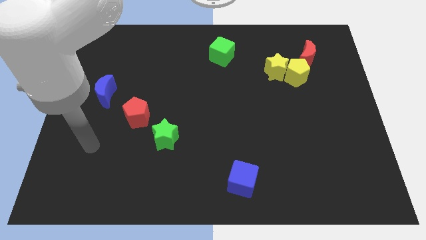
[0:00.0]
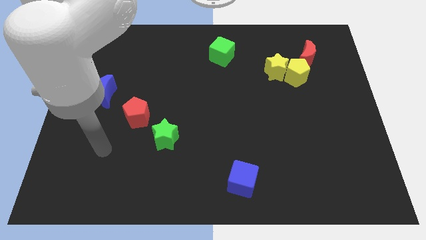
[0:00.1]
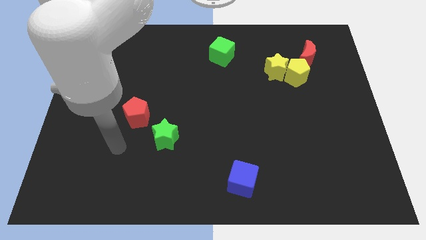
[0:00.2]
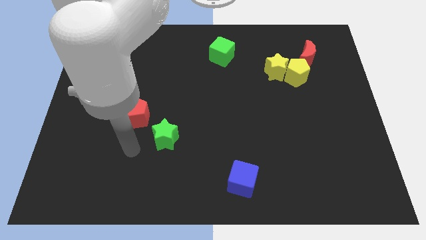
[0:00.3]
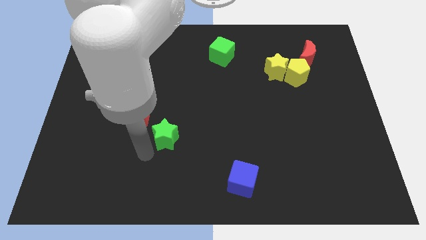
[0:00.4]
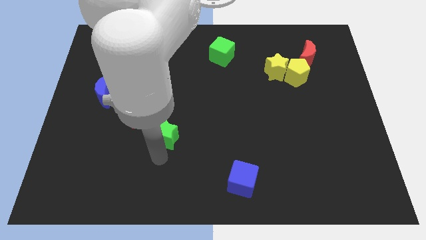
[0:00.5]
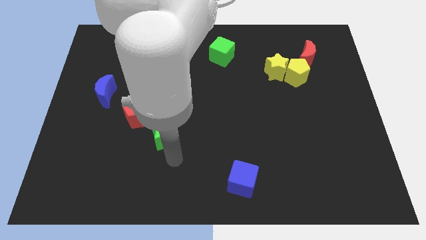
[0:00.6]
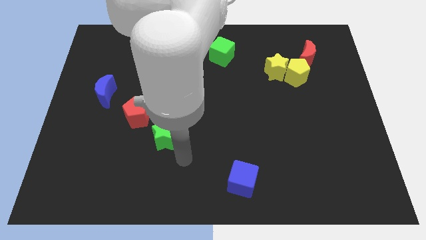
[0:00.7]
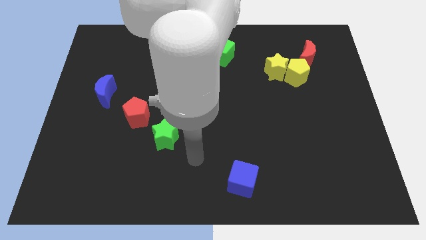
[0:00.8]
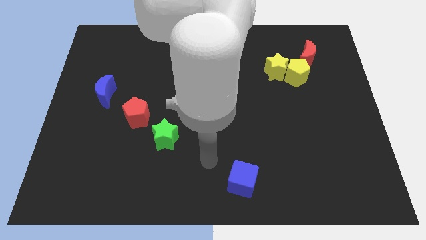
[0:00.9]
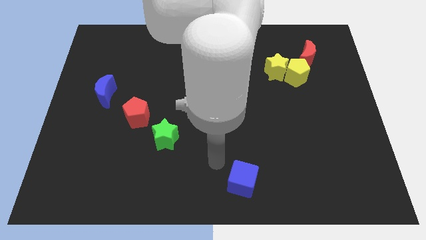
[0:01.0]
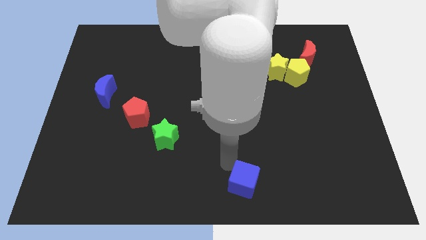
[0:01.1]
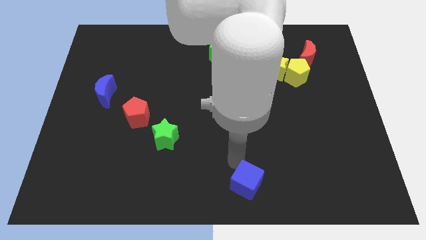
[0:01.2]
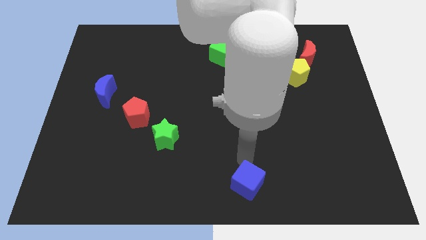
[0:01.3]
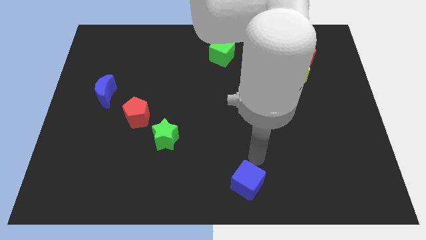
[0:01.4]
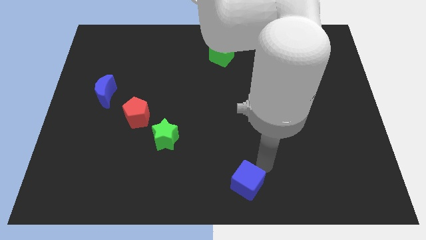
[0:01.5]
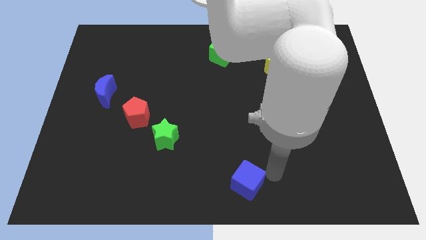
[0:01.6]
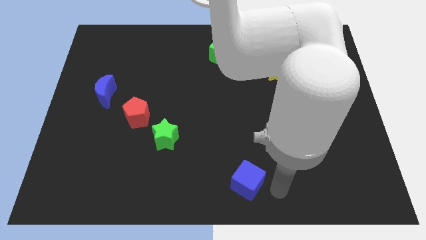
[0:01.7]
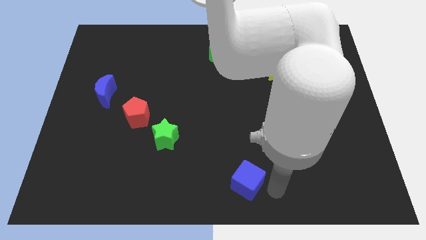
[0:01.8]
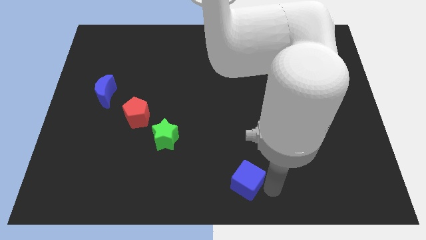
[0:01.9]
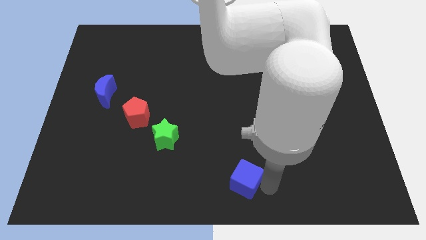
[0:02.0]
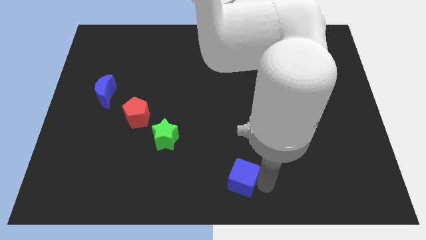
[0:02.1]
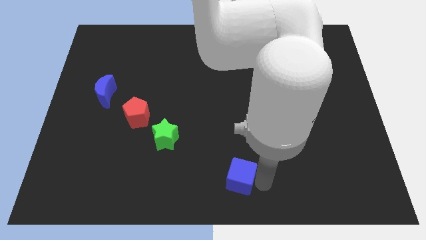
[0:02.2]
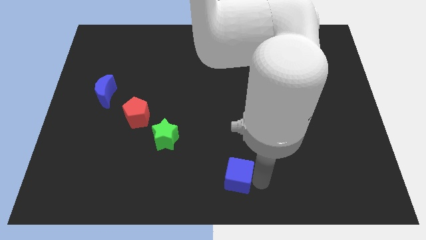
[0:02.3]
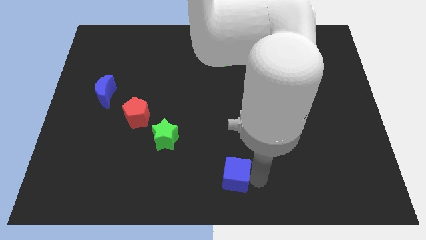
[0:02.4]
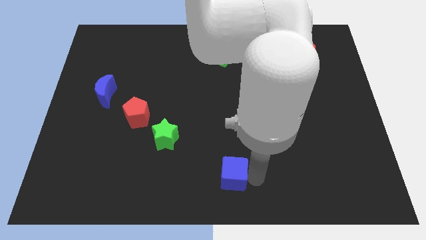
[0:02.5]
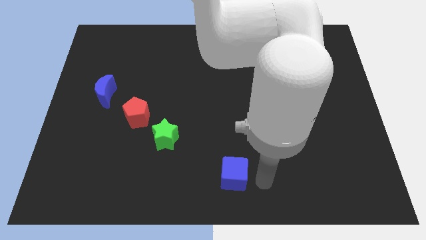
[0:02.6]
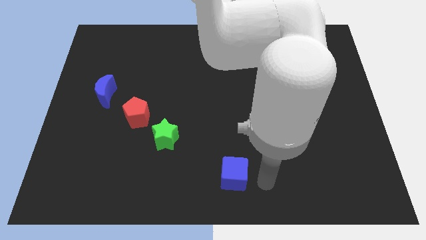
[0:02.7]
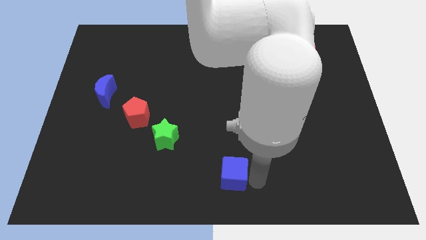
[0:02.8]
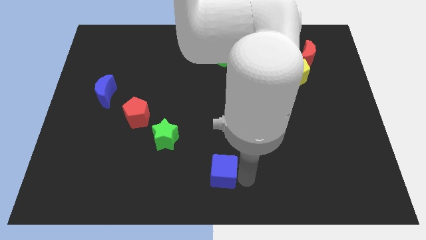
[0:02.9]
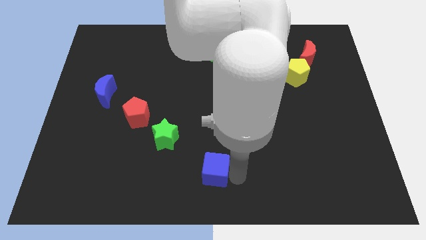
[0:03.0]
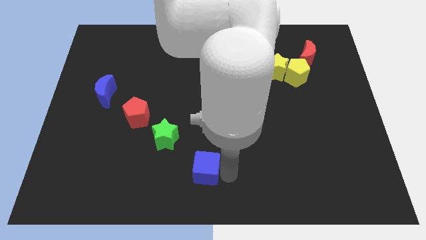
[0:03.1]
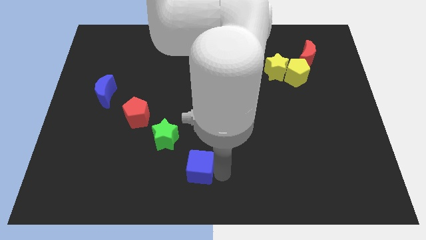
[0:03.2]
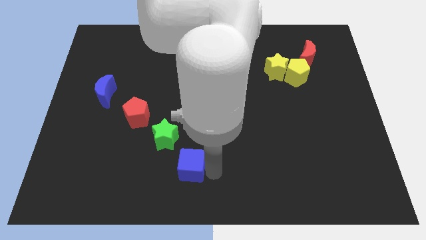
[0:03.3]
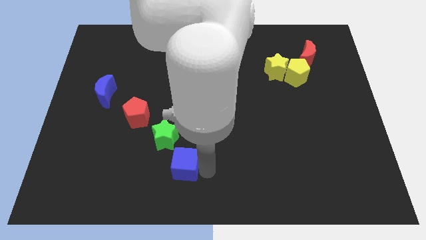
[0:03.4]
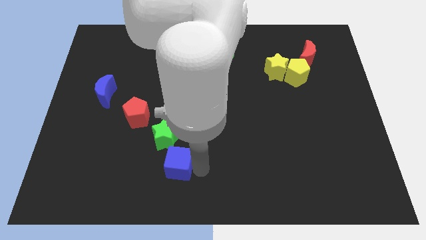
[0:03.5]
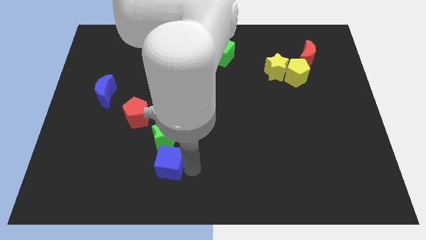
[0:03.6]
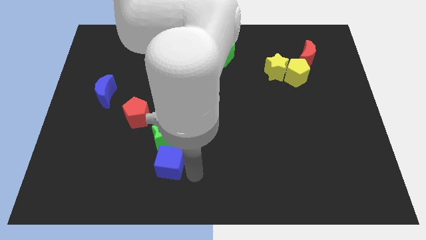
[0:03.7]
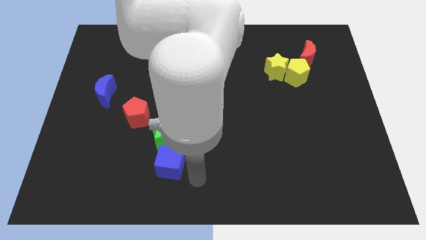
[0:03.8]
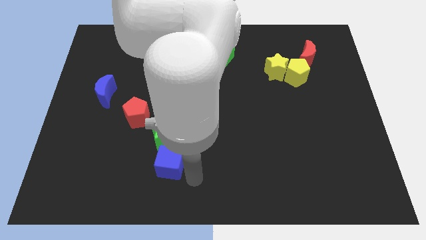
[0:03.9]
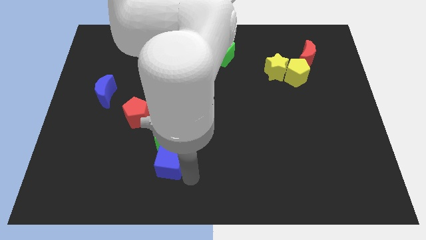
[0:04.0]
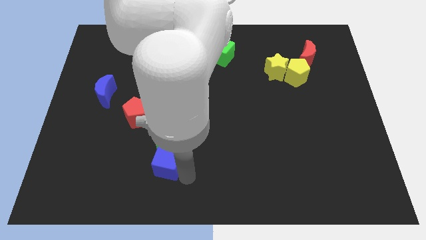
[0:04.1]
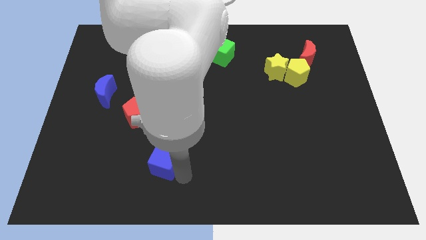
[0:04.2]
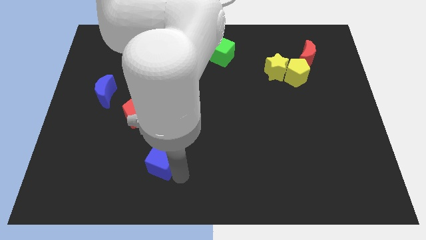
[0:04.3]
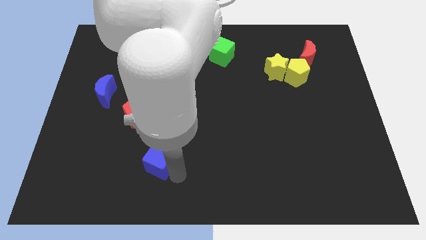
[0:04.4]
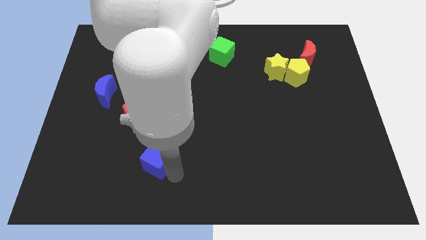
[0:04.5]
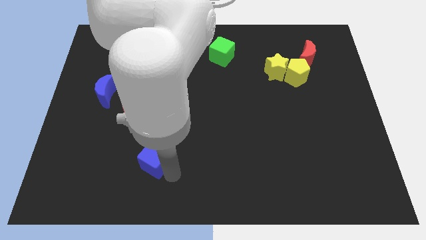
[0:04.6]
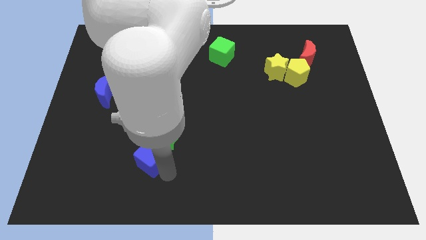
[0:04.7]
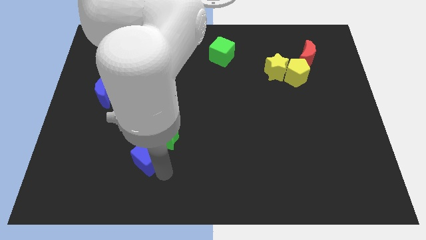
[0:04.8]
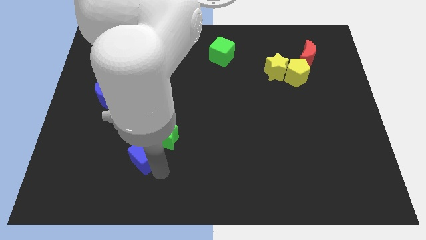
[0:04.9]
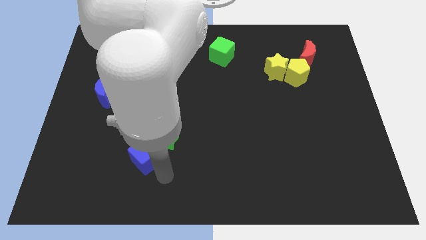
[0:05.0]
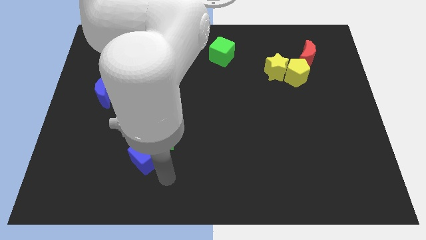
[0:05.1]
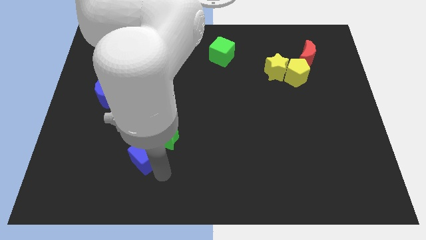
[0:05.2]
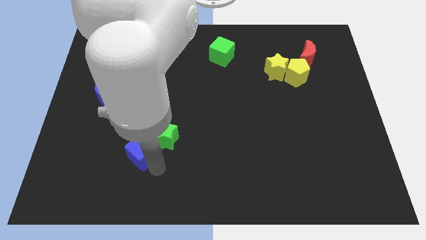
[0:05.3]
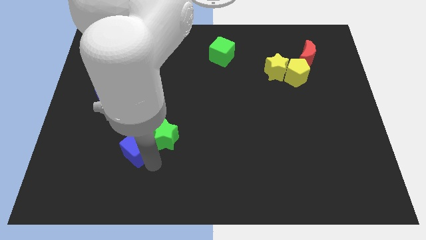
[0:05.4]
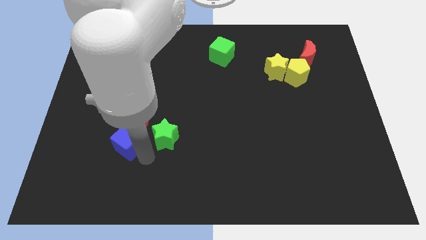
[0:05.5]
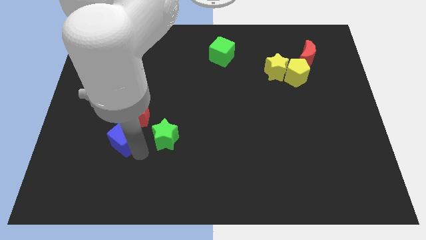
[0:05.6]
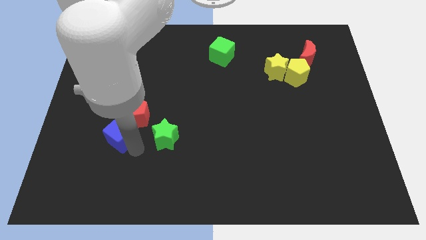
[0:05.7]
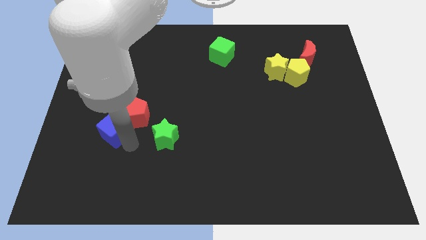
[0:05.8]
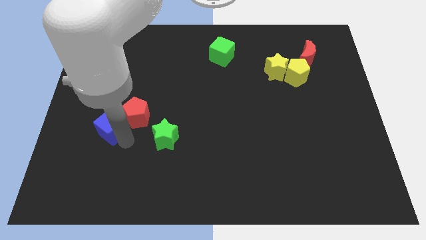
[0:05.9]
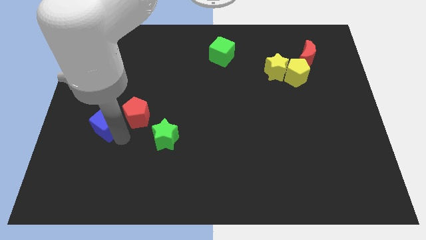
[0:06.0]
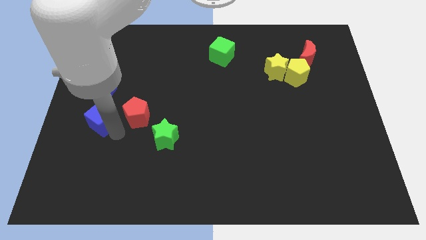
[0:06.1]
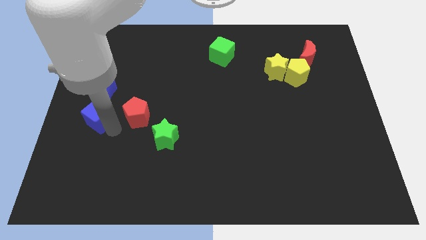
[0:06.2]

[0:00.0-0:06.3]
move the blue cube to the left side of the board

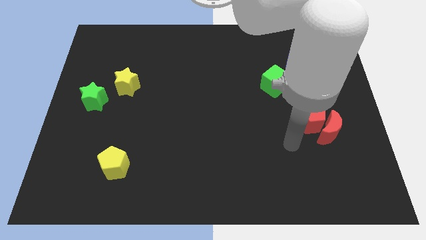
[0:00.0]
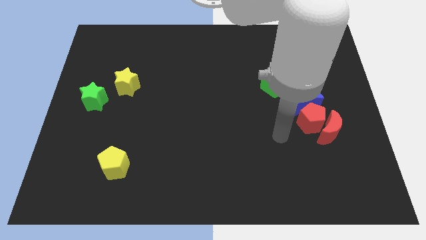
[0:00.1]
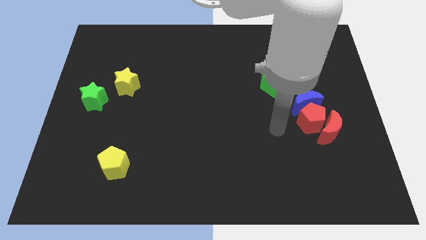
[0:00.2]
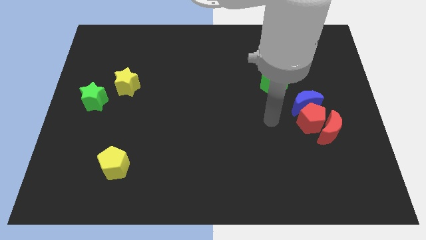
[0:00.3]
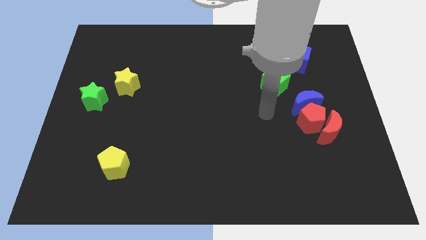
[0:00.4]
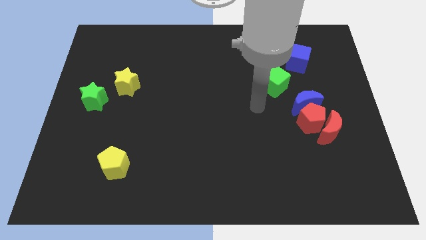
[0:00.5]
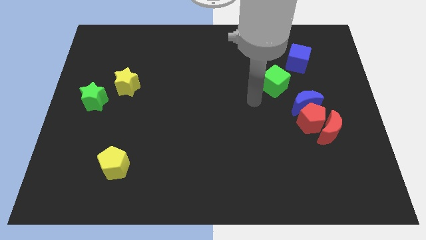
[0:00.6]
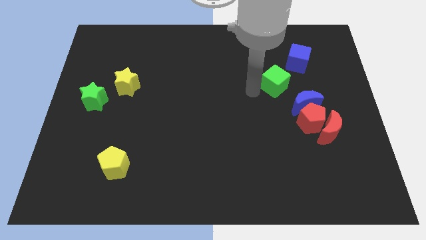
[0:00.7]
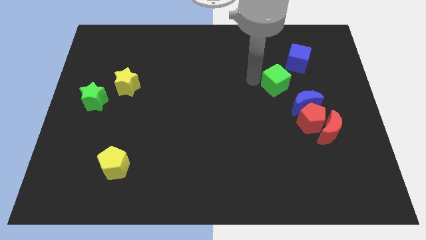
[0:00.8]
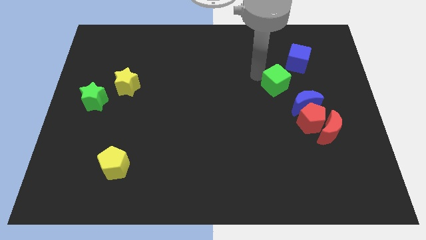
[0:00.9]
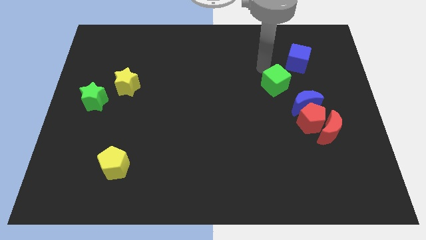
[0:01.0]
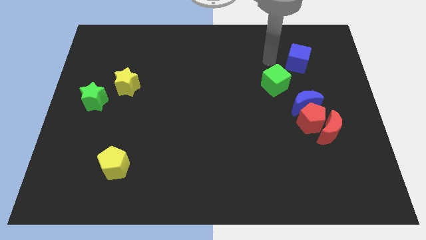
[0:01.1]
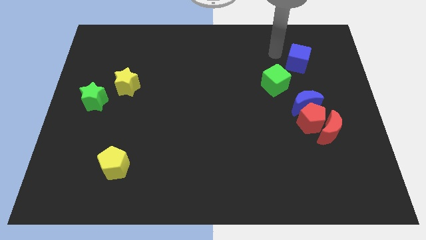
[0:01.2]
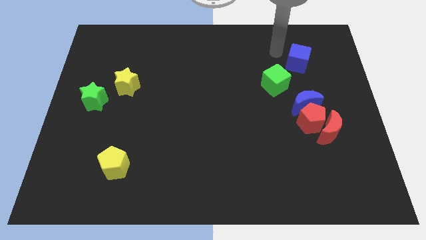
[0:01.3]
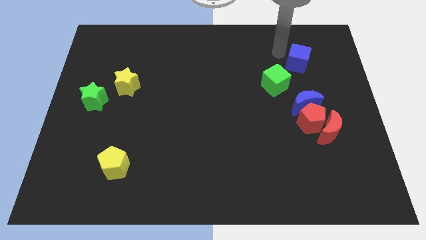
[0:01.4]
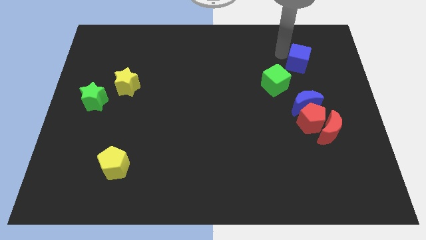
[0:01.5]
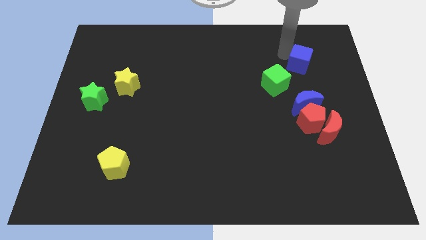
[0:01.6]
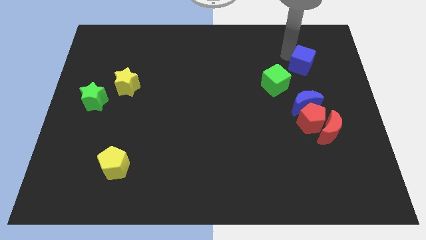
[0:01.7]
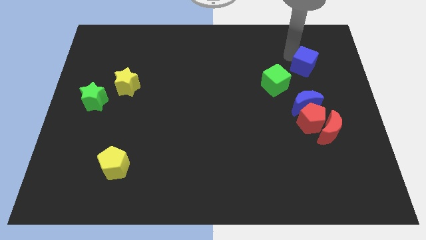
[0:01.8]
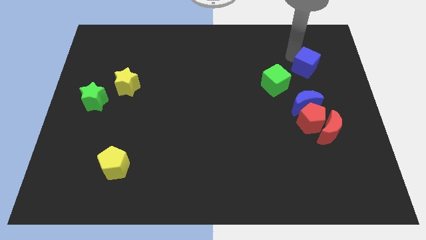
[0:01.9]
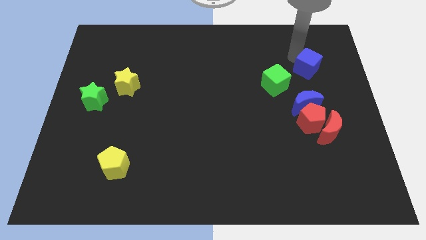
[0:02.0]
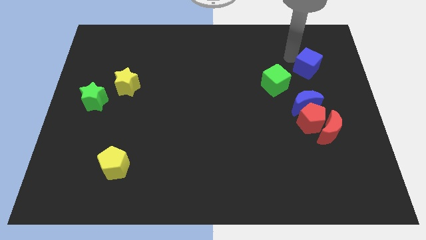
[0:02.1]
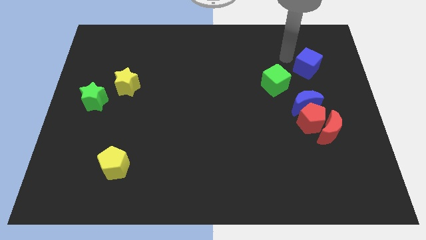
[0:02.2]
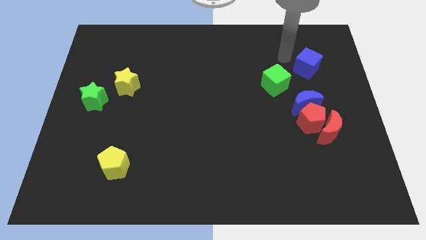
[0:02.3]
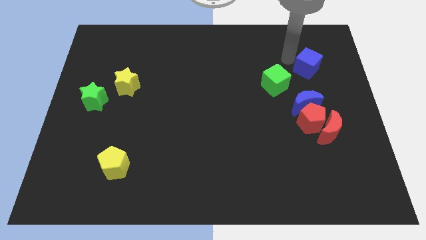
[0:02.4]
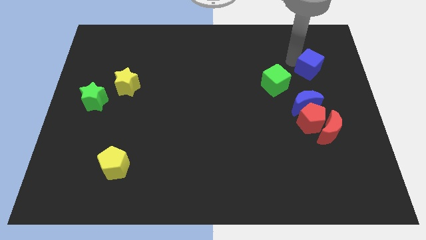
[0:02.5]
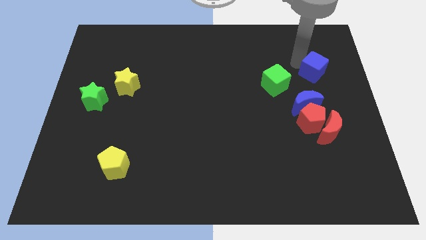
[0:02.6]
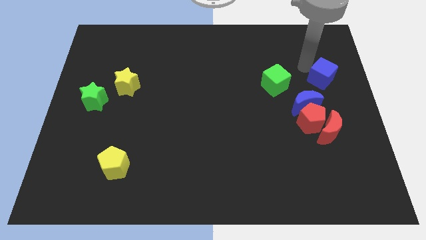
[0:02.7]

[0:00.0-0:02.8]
put the blue cube to the center right
